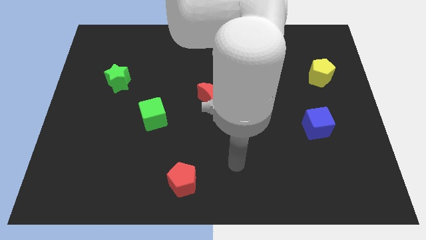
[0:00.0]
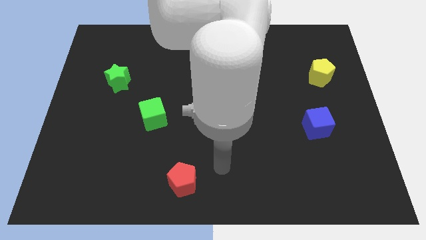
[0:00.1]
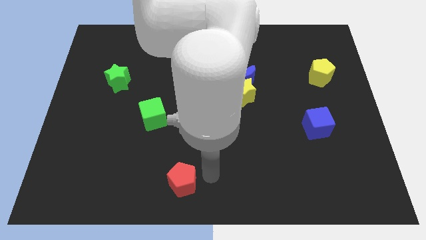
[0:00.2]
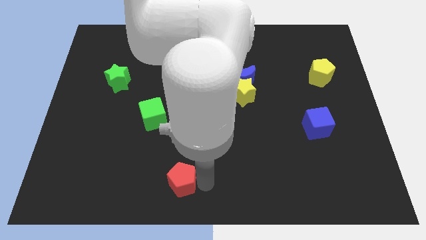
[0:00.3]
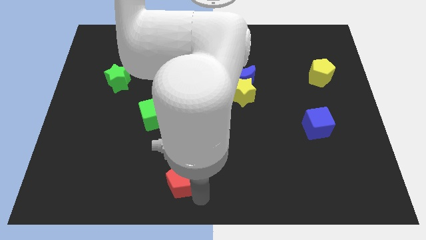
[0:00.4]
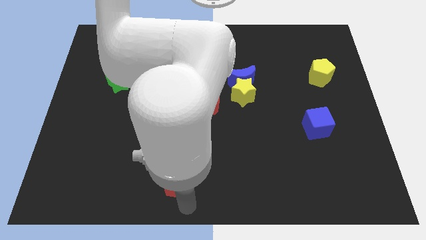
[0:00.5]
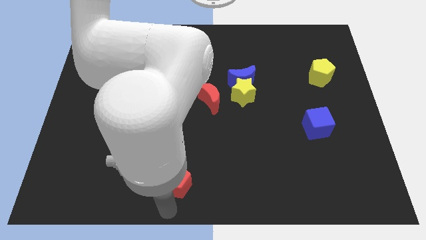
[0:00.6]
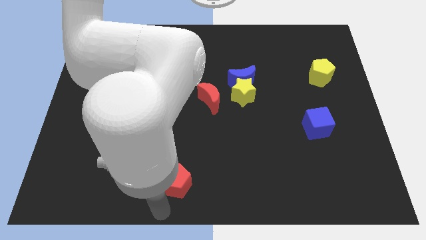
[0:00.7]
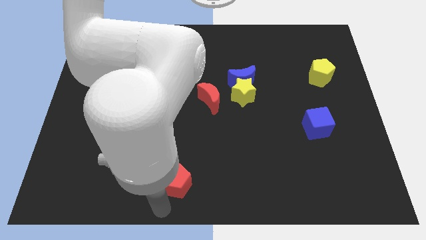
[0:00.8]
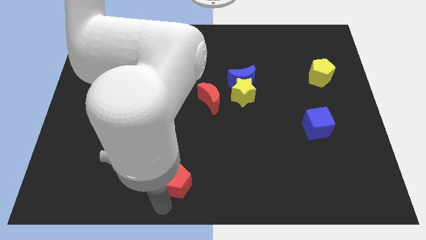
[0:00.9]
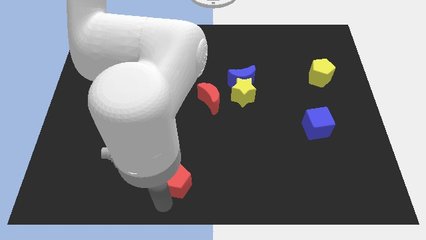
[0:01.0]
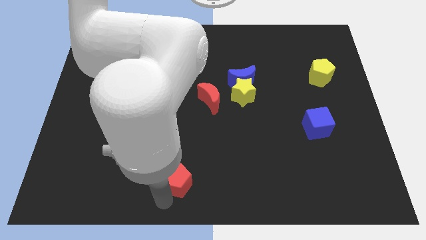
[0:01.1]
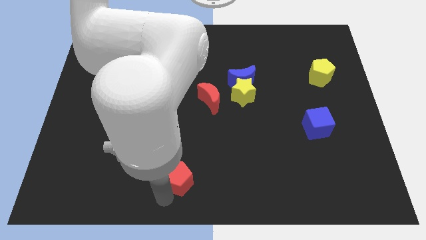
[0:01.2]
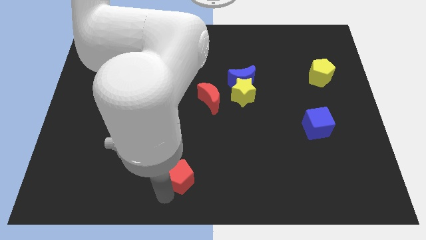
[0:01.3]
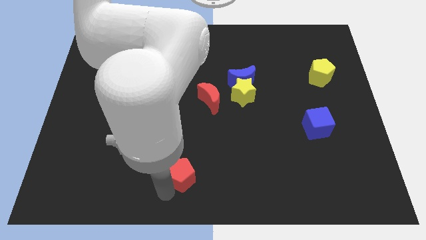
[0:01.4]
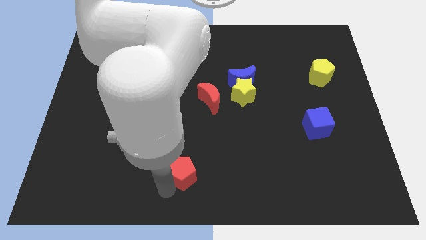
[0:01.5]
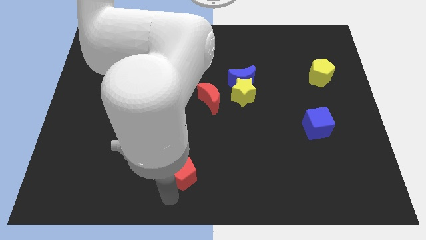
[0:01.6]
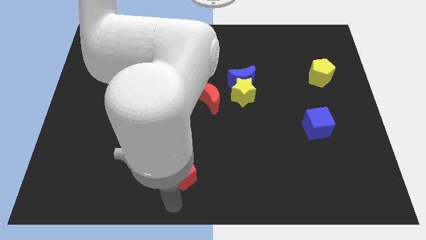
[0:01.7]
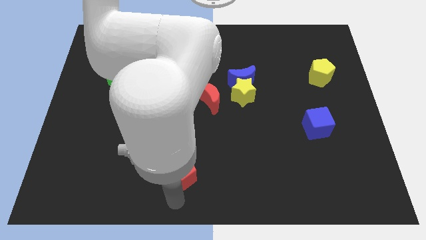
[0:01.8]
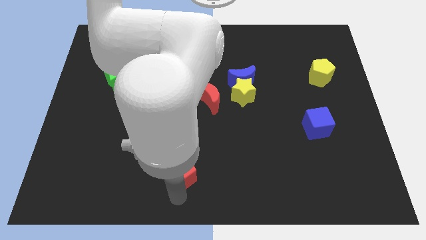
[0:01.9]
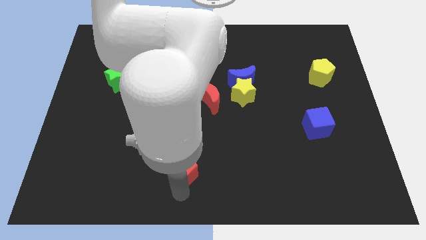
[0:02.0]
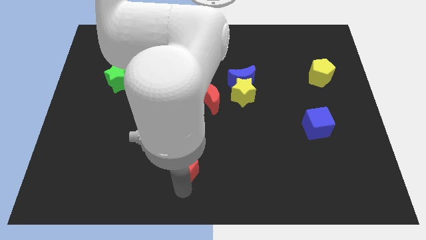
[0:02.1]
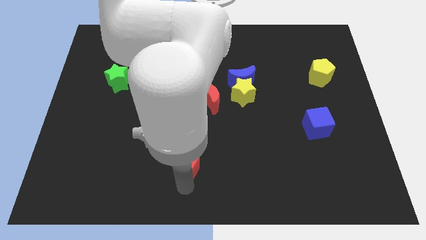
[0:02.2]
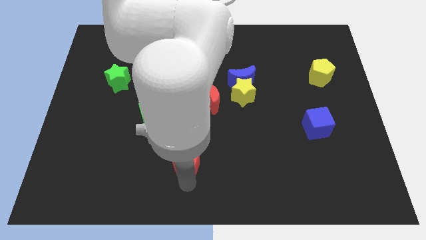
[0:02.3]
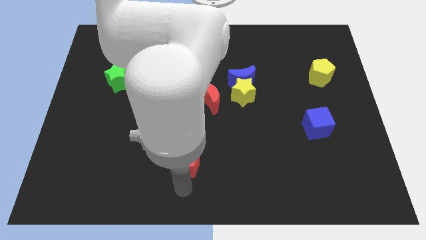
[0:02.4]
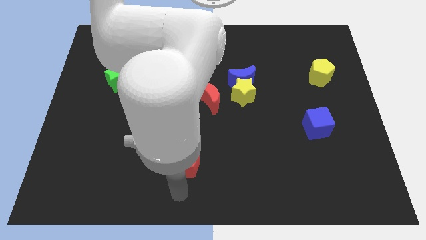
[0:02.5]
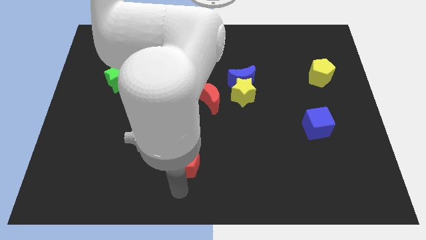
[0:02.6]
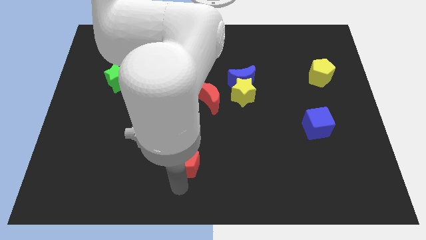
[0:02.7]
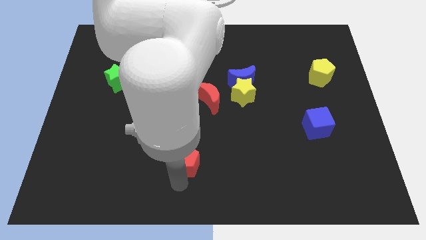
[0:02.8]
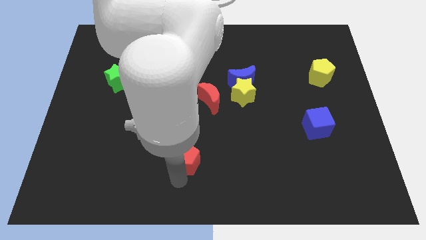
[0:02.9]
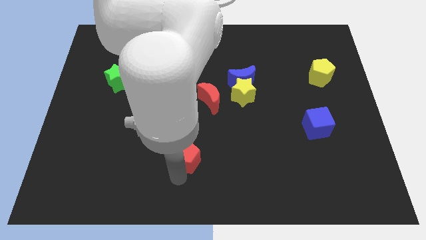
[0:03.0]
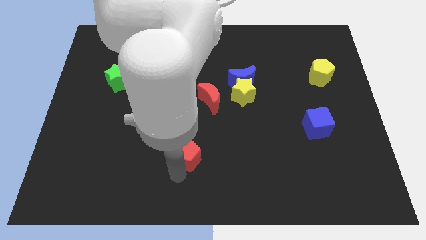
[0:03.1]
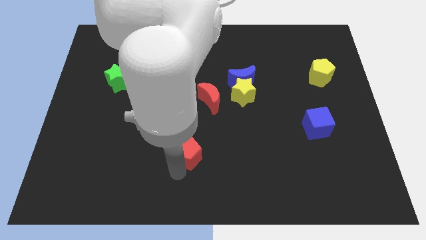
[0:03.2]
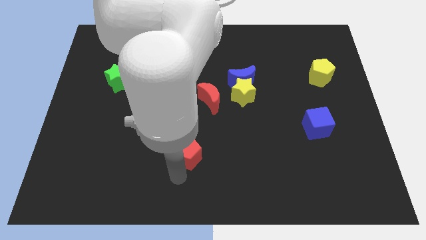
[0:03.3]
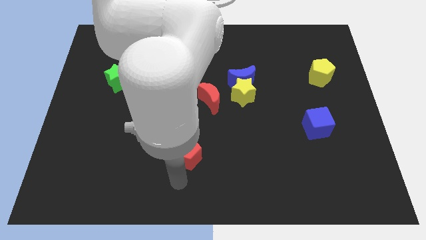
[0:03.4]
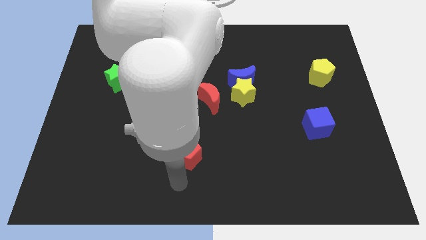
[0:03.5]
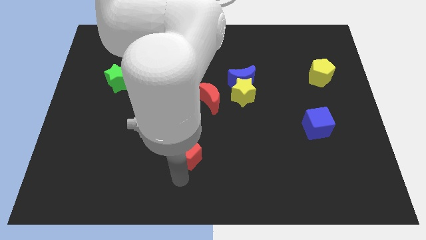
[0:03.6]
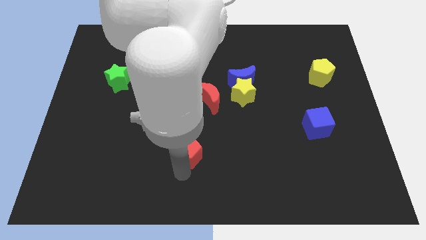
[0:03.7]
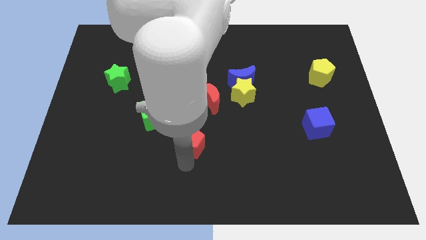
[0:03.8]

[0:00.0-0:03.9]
slightly push the red pentagon upwards

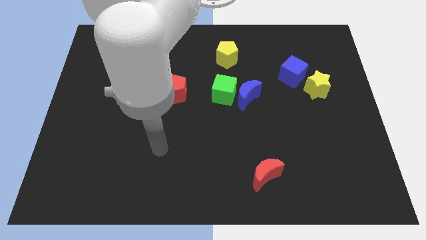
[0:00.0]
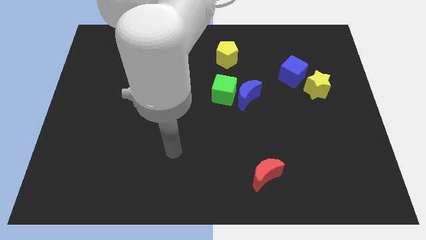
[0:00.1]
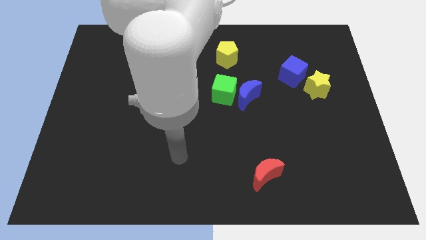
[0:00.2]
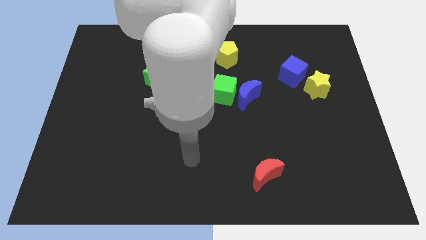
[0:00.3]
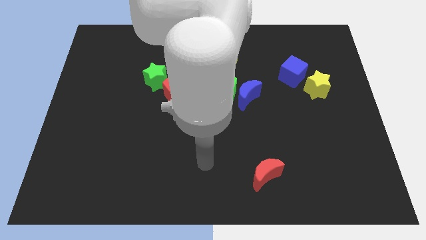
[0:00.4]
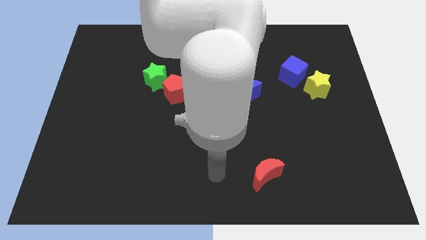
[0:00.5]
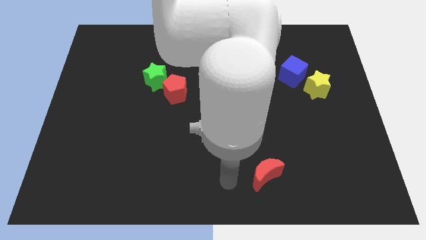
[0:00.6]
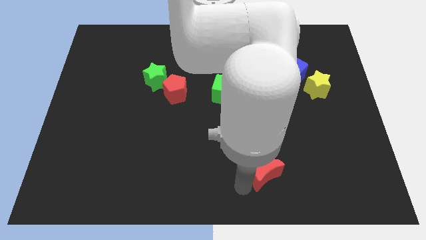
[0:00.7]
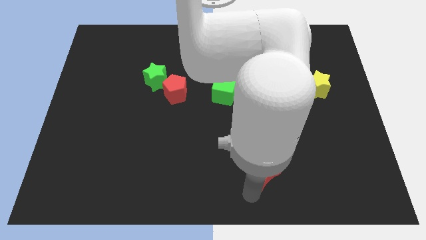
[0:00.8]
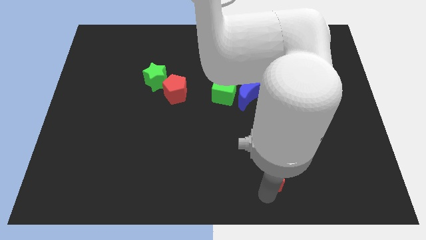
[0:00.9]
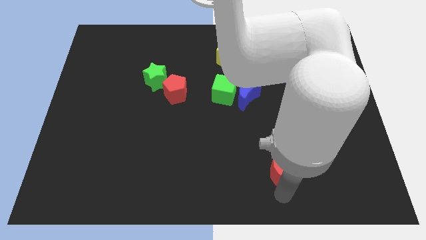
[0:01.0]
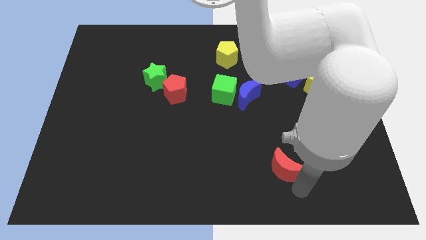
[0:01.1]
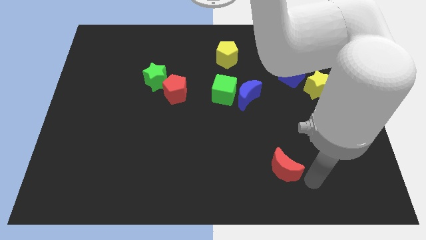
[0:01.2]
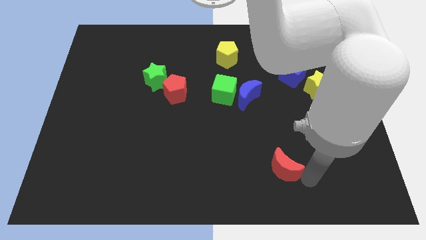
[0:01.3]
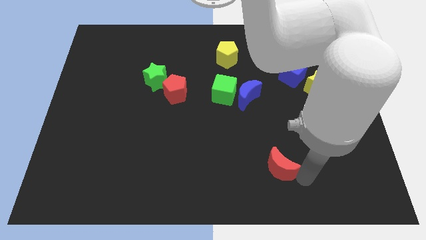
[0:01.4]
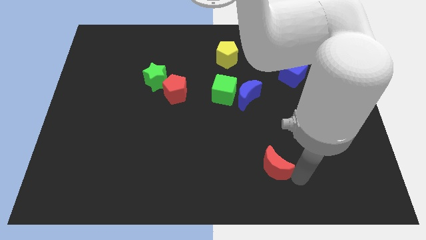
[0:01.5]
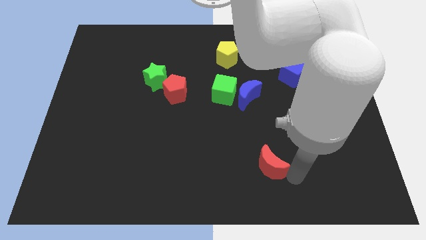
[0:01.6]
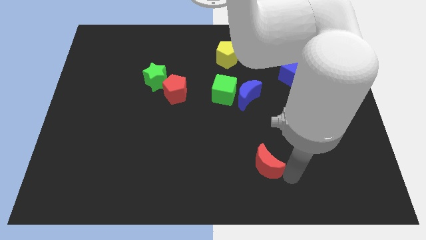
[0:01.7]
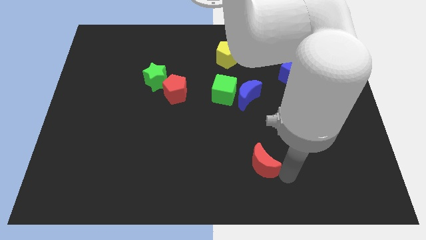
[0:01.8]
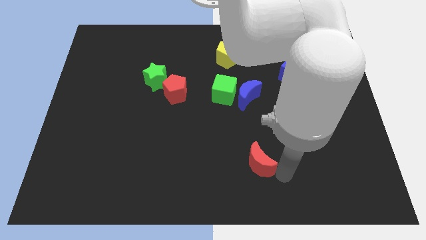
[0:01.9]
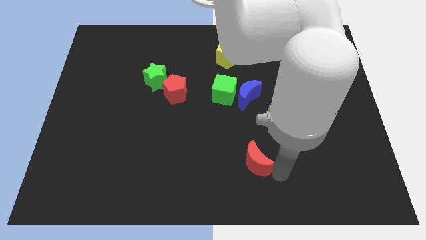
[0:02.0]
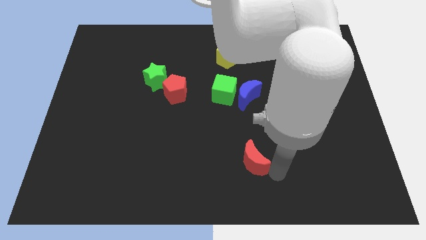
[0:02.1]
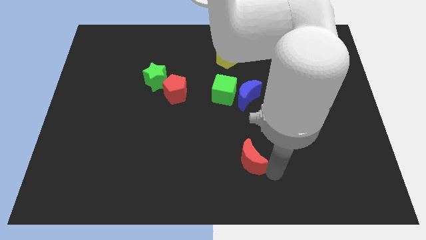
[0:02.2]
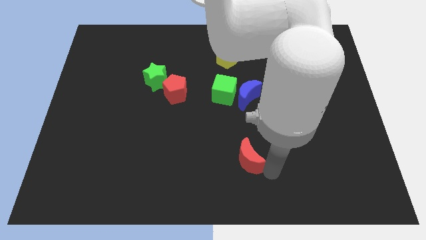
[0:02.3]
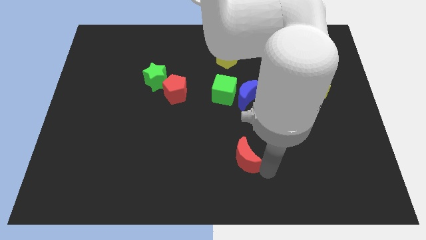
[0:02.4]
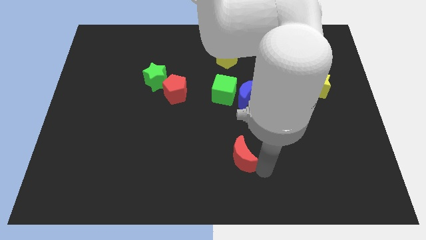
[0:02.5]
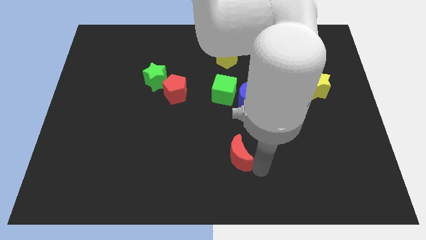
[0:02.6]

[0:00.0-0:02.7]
slightly move the red moon up and to the left

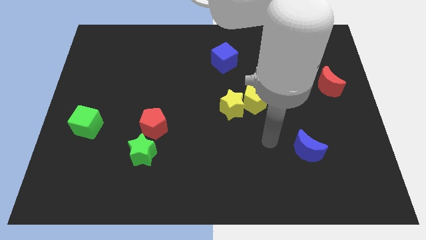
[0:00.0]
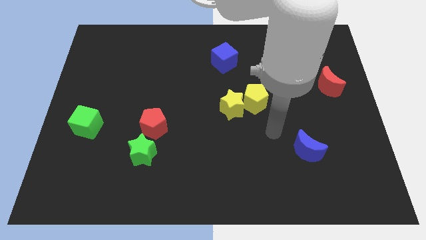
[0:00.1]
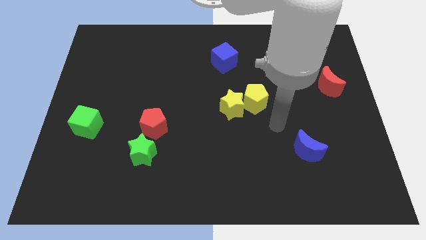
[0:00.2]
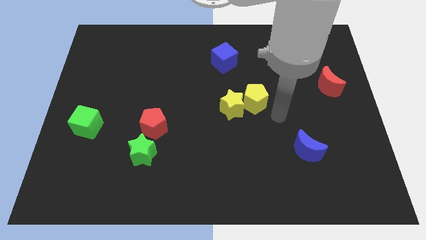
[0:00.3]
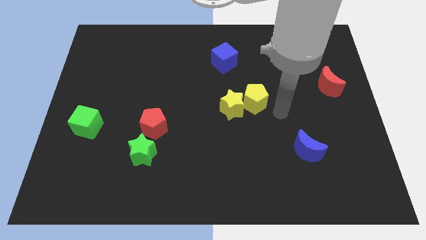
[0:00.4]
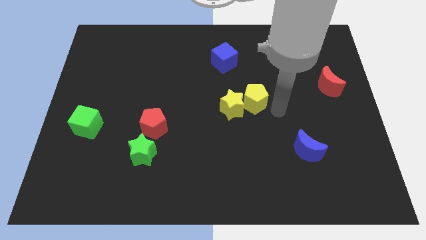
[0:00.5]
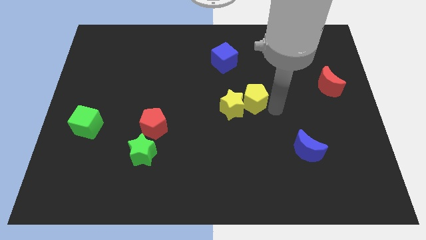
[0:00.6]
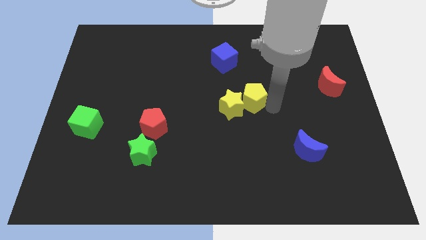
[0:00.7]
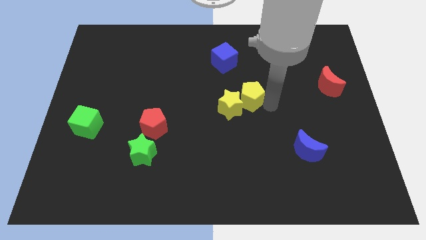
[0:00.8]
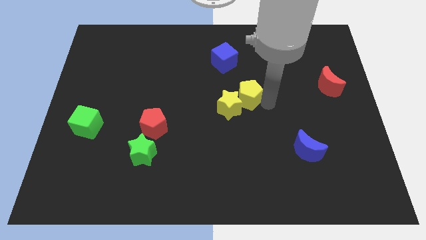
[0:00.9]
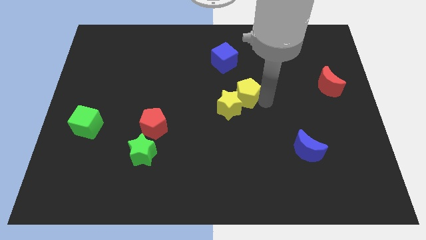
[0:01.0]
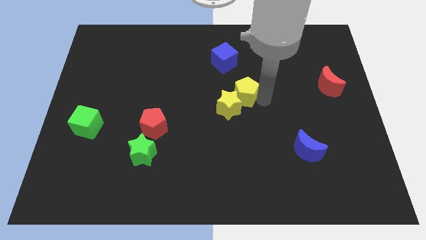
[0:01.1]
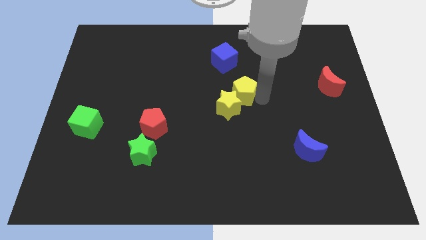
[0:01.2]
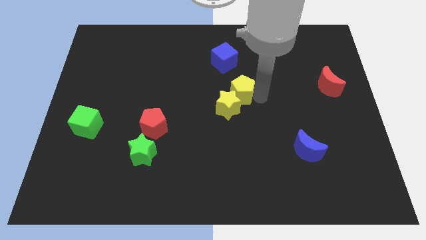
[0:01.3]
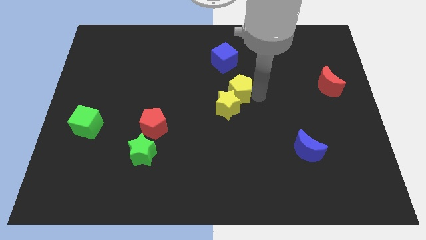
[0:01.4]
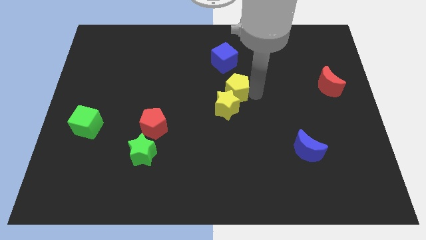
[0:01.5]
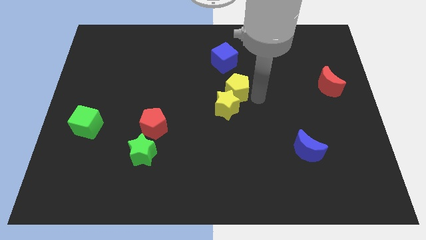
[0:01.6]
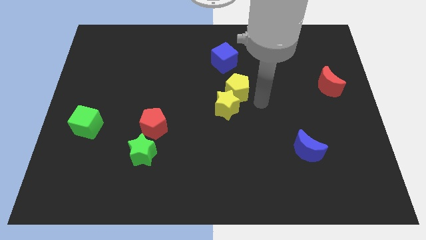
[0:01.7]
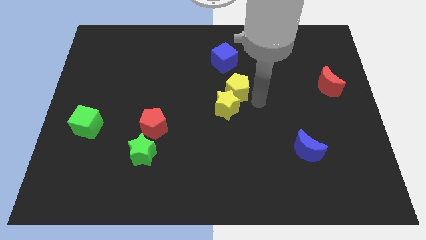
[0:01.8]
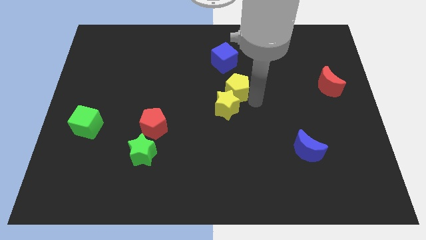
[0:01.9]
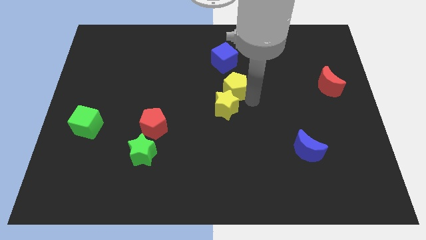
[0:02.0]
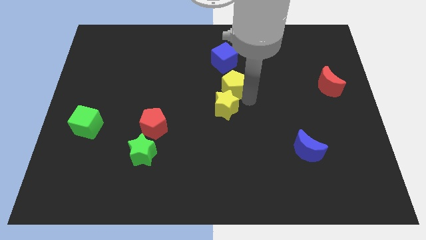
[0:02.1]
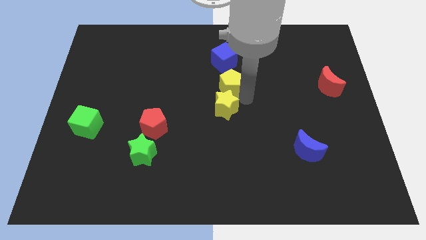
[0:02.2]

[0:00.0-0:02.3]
slide the yellow pentagon a little diagonally upwards and left
